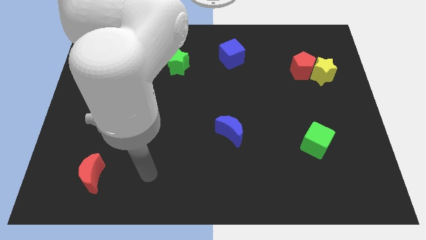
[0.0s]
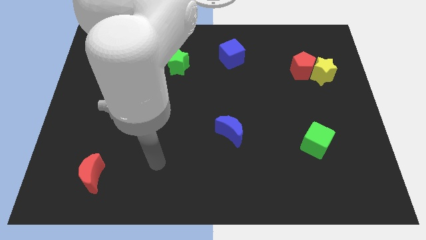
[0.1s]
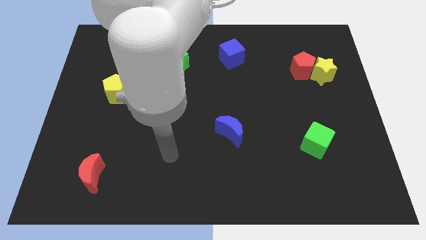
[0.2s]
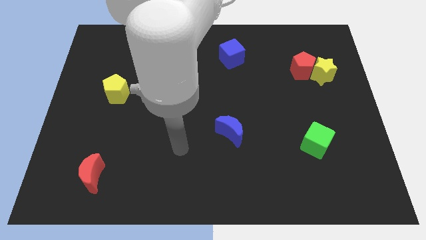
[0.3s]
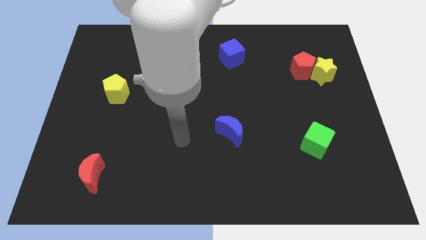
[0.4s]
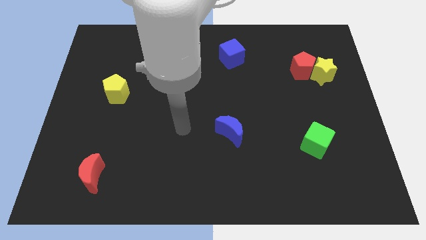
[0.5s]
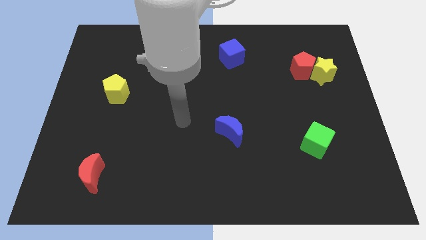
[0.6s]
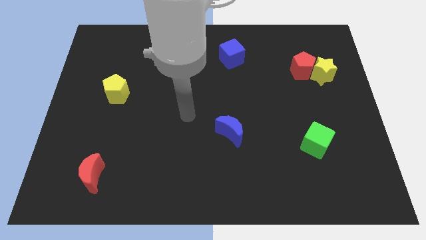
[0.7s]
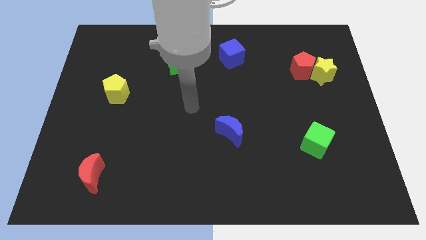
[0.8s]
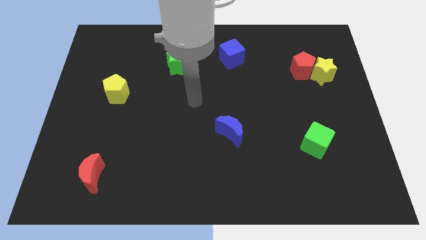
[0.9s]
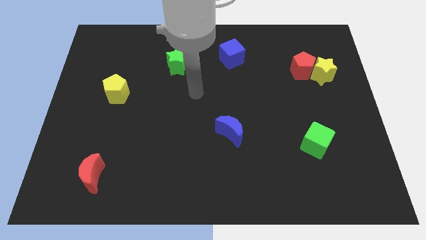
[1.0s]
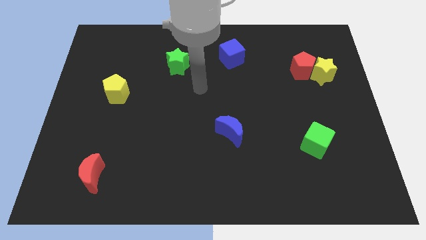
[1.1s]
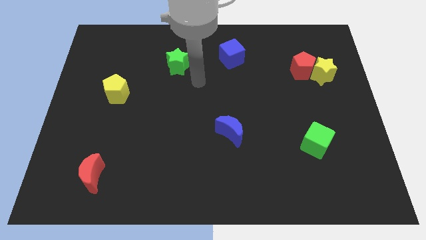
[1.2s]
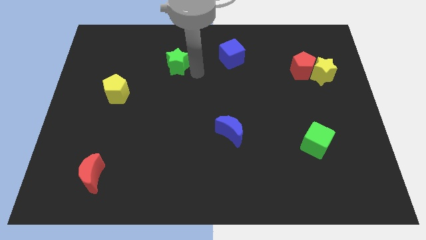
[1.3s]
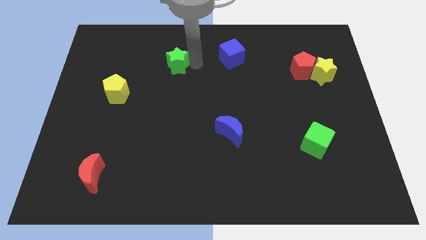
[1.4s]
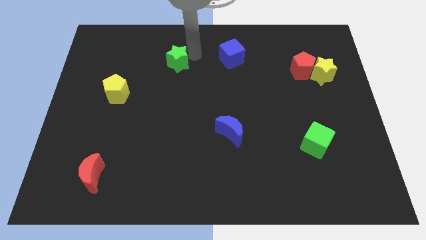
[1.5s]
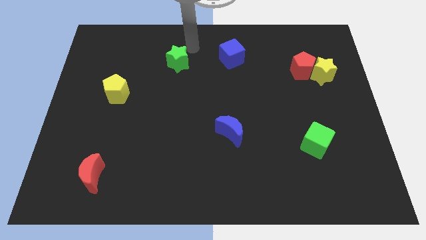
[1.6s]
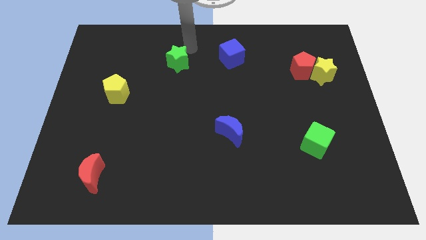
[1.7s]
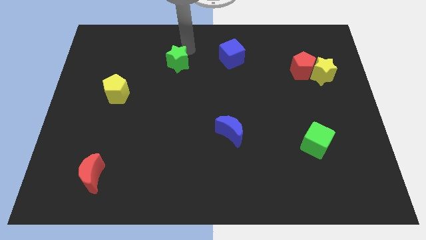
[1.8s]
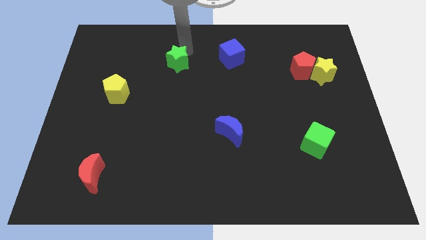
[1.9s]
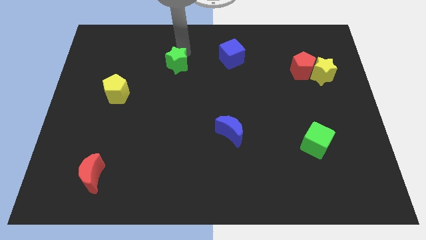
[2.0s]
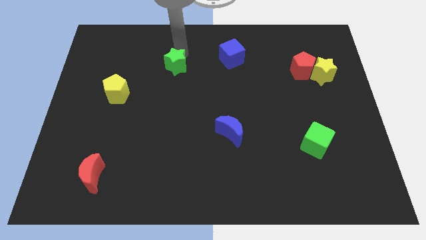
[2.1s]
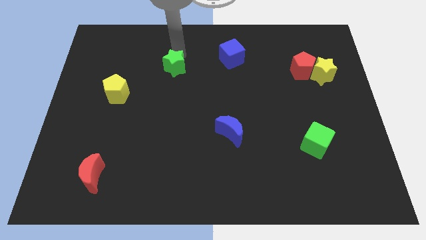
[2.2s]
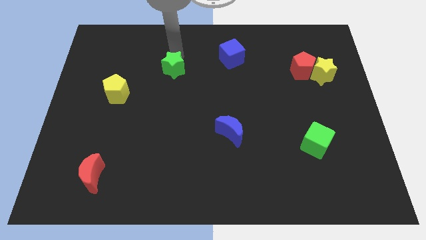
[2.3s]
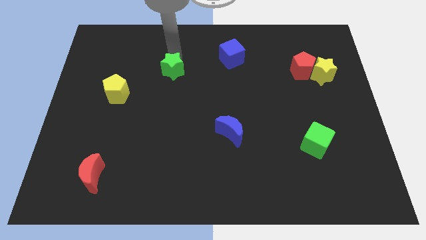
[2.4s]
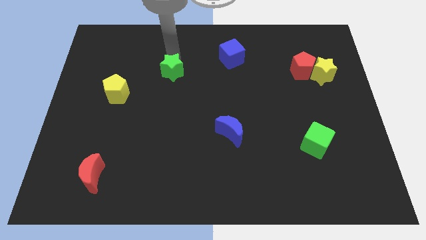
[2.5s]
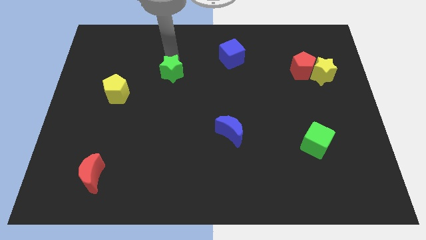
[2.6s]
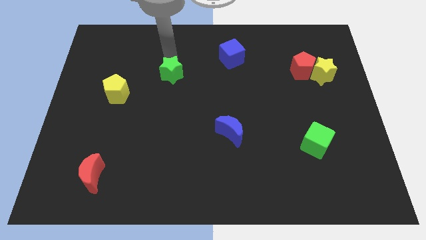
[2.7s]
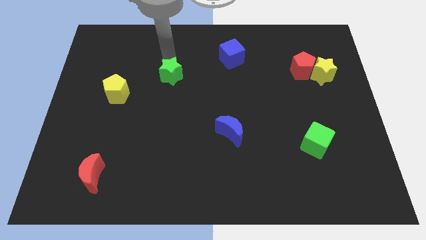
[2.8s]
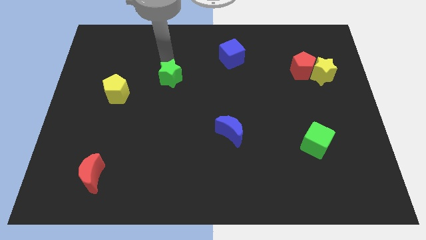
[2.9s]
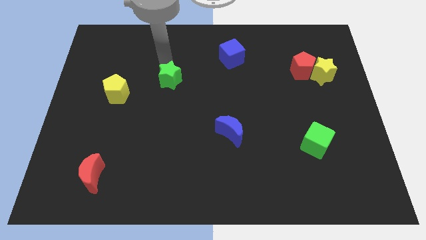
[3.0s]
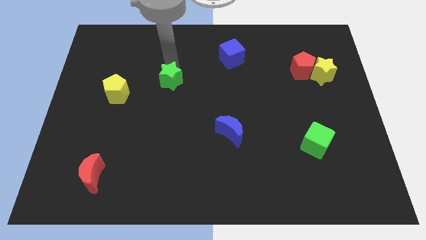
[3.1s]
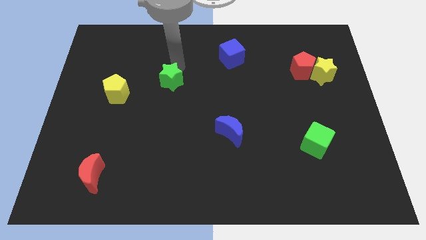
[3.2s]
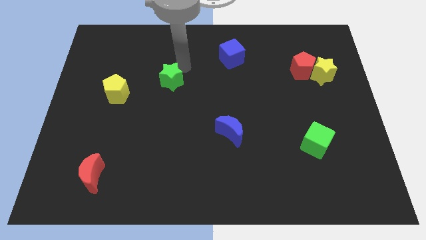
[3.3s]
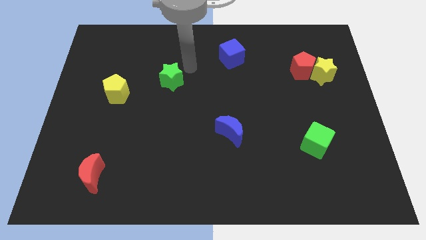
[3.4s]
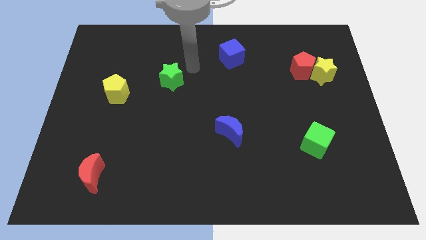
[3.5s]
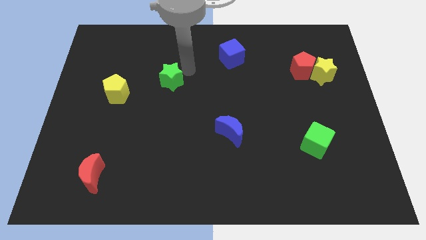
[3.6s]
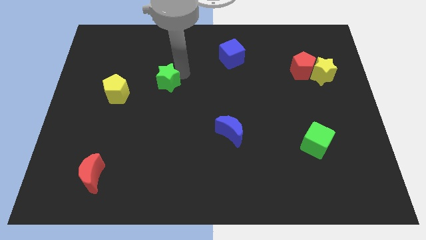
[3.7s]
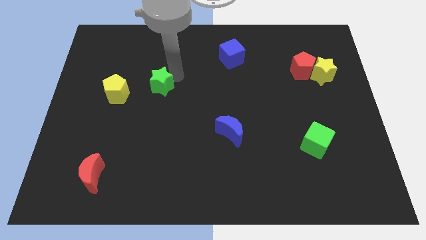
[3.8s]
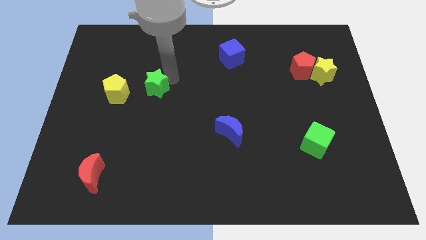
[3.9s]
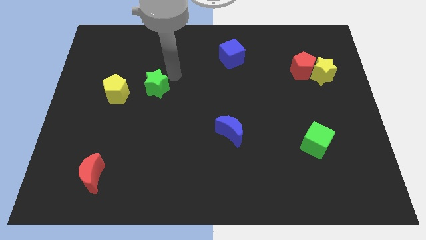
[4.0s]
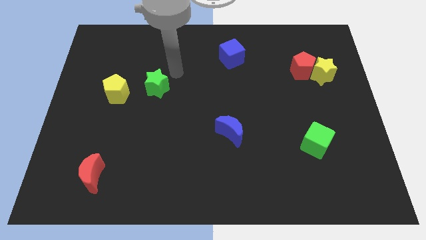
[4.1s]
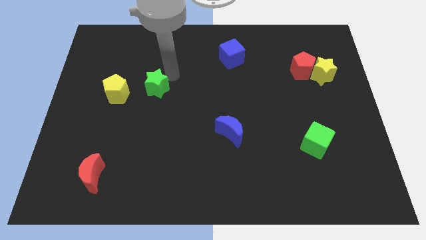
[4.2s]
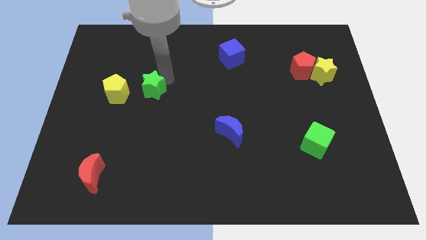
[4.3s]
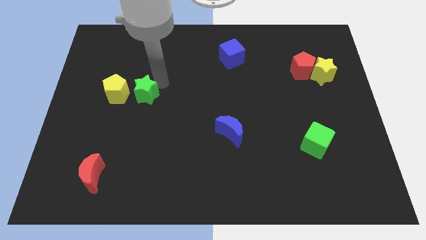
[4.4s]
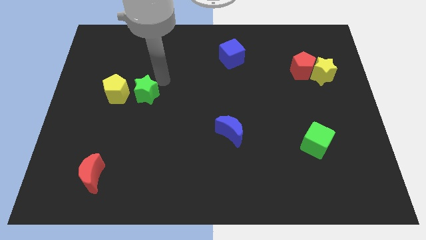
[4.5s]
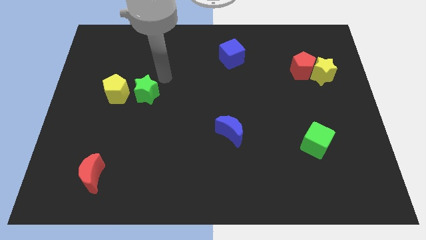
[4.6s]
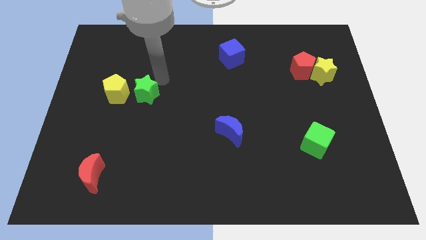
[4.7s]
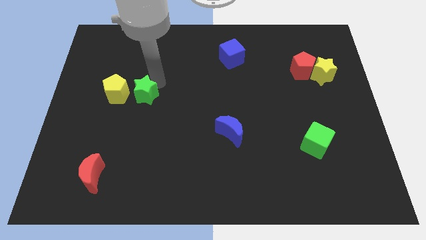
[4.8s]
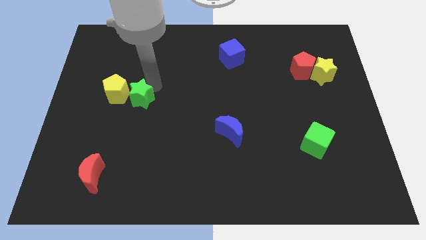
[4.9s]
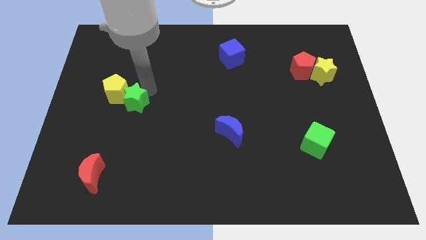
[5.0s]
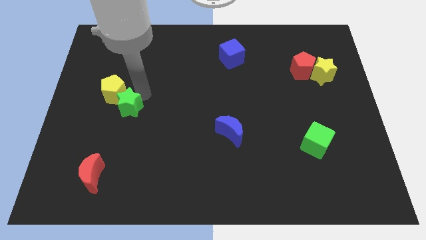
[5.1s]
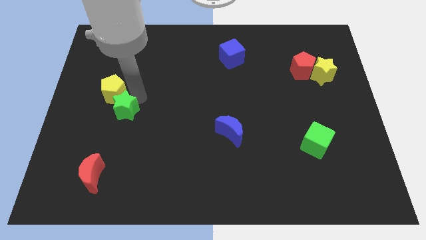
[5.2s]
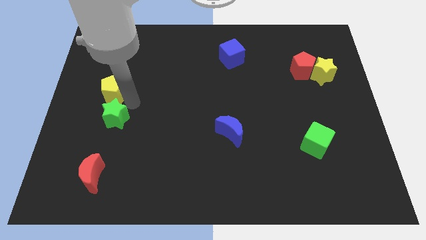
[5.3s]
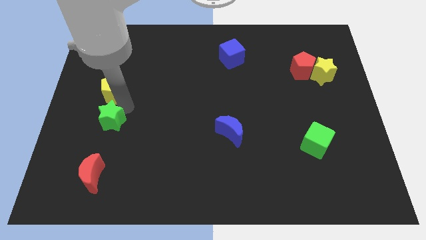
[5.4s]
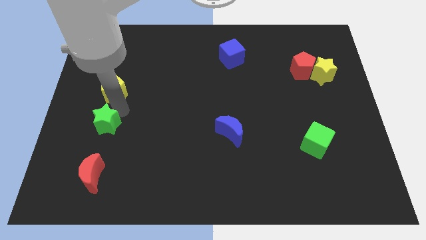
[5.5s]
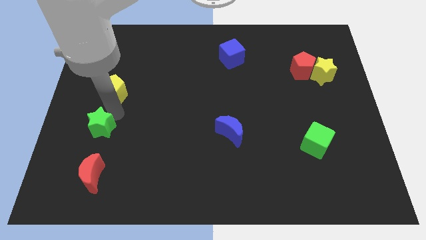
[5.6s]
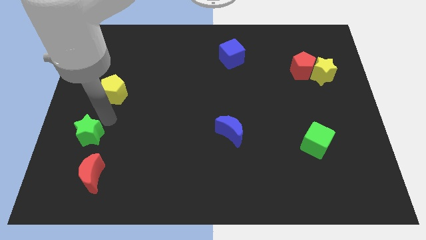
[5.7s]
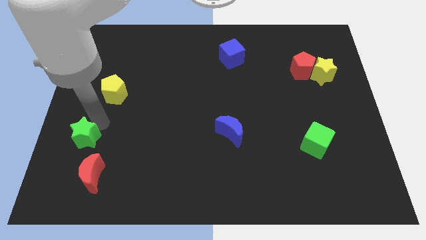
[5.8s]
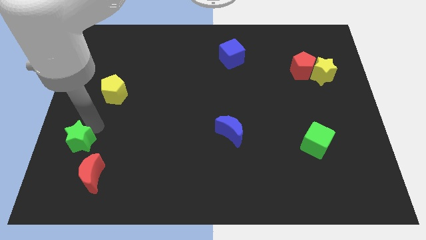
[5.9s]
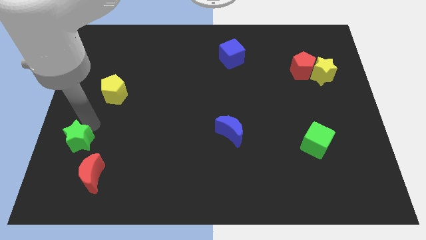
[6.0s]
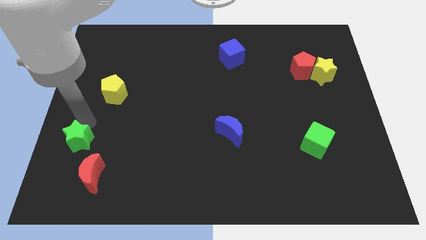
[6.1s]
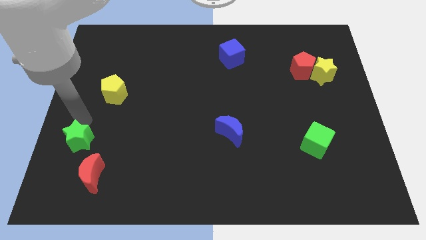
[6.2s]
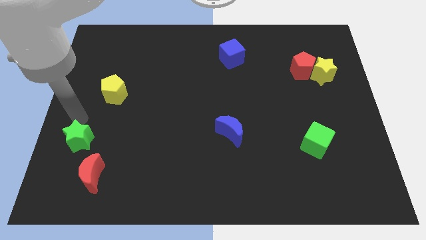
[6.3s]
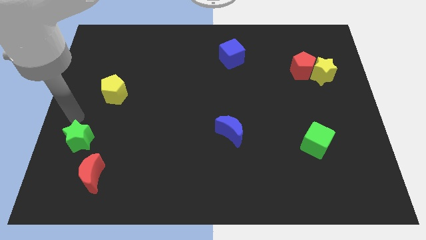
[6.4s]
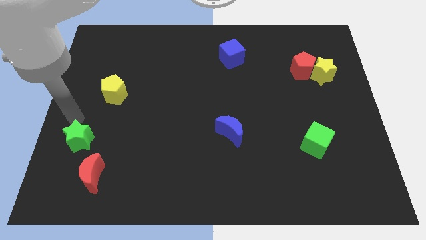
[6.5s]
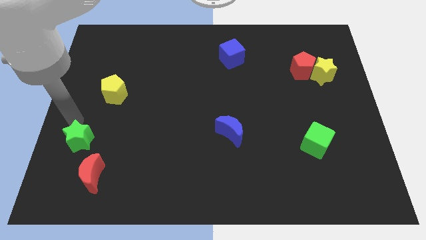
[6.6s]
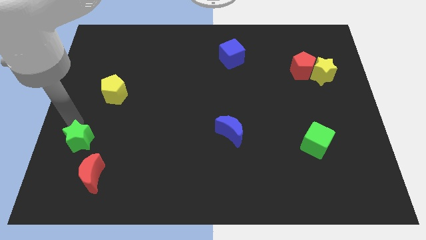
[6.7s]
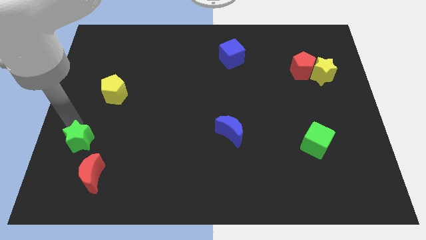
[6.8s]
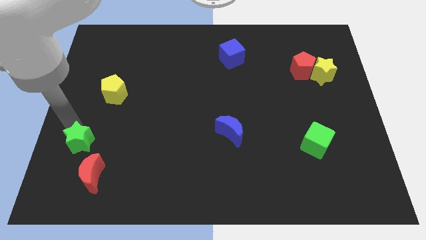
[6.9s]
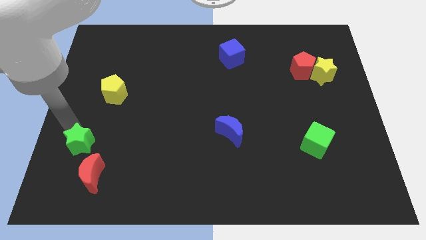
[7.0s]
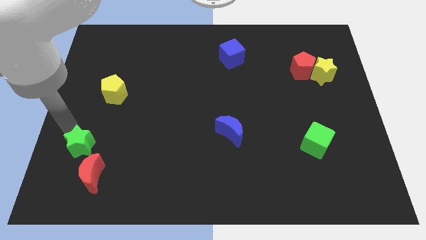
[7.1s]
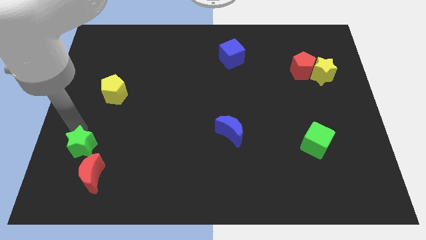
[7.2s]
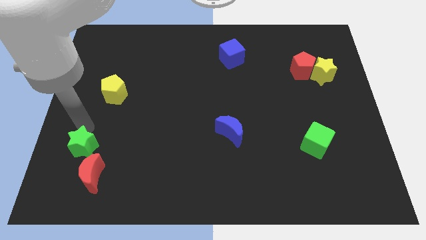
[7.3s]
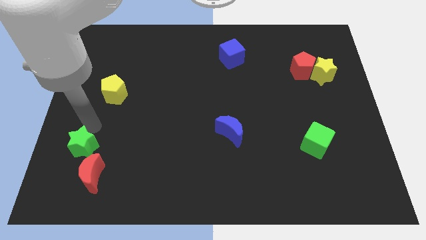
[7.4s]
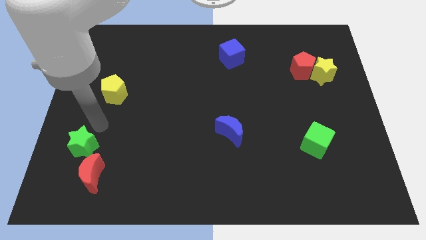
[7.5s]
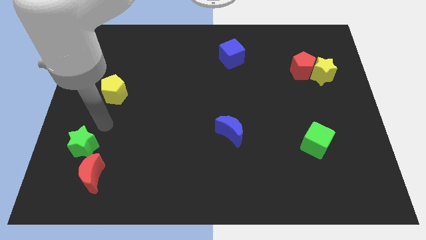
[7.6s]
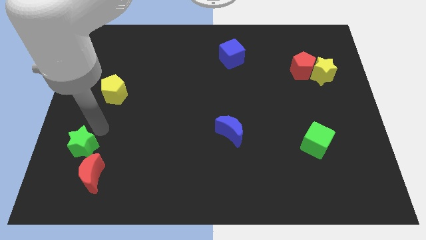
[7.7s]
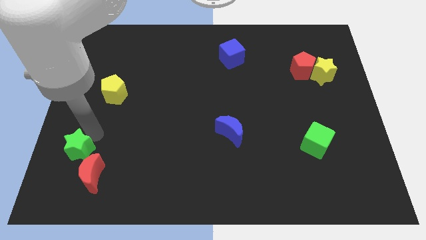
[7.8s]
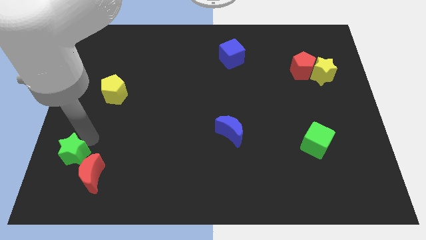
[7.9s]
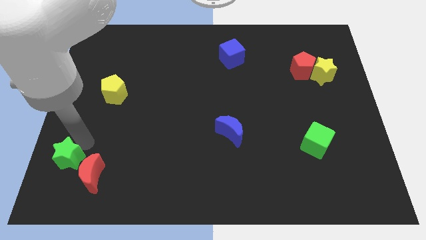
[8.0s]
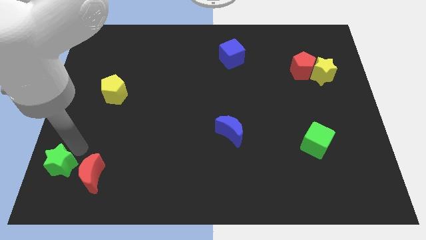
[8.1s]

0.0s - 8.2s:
slide the green star to the lower left corner
